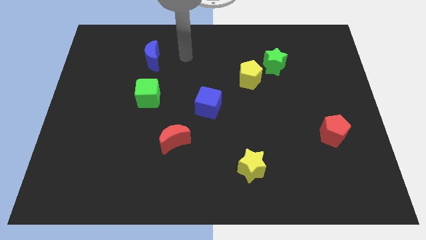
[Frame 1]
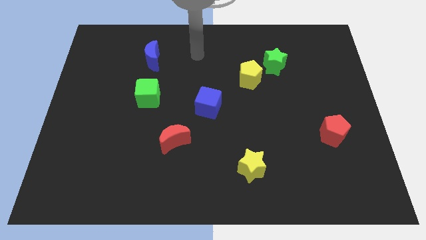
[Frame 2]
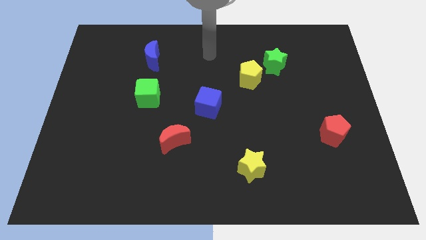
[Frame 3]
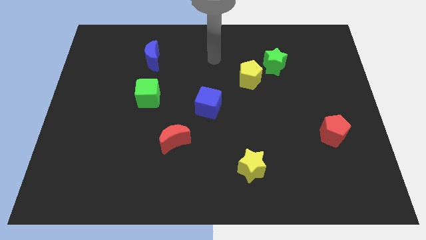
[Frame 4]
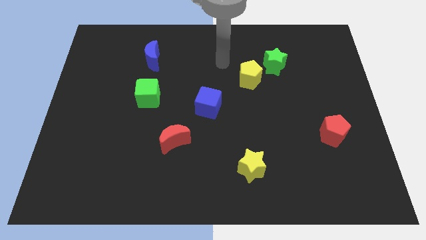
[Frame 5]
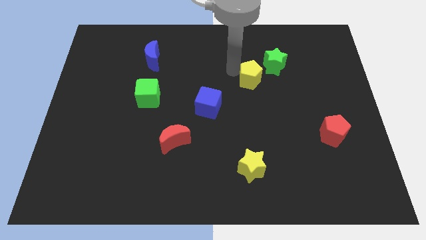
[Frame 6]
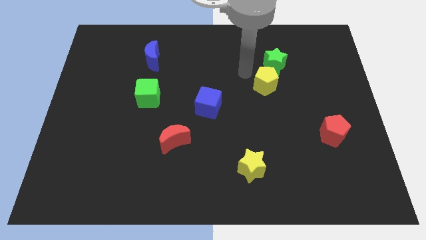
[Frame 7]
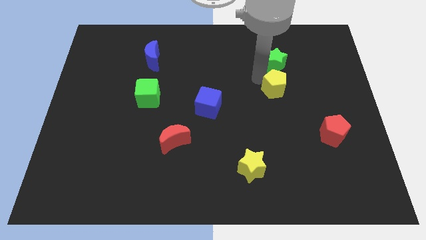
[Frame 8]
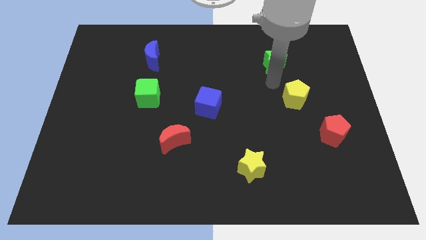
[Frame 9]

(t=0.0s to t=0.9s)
pull the green star apart from the yellow pentagon

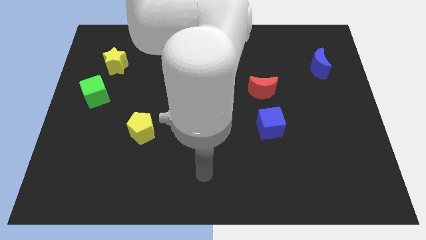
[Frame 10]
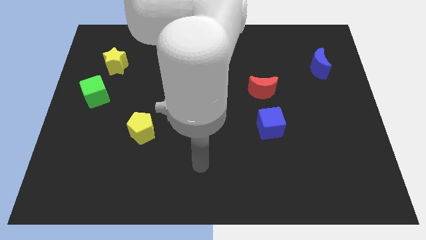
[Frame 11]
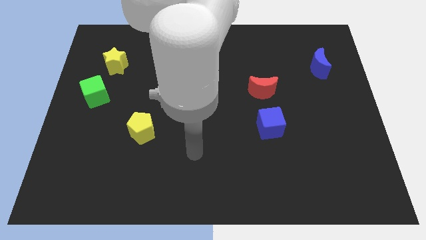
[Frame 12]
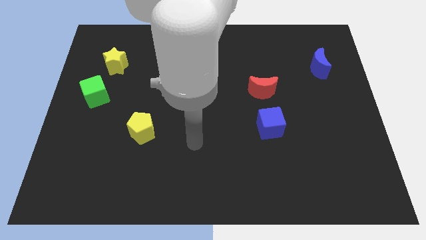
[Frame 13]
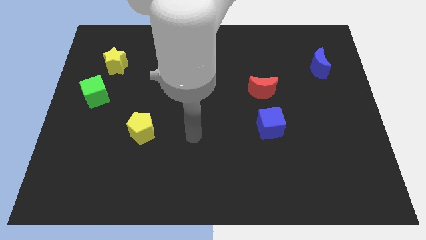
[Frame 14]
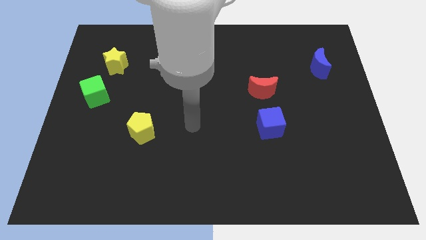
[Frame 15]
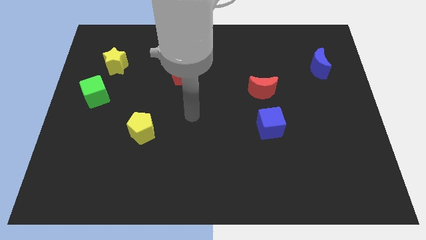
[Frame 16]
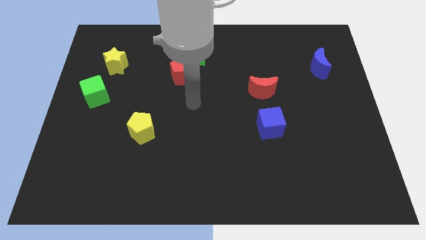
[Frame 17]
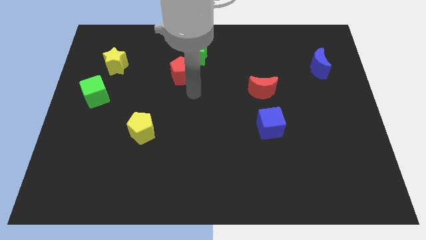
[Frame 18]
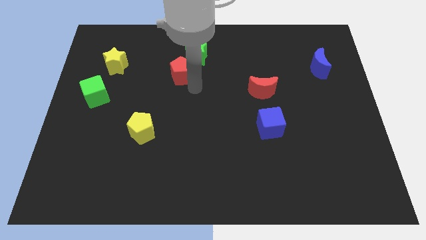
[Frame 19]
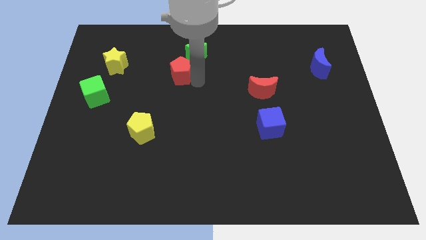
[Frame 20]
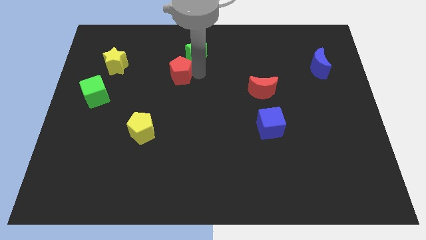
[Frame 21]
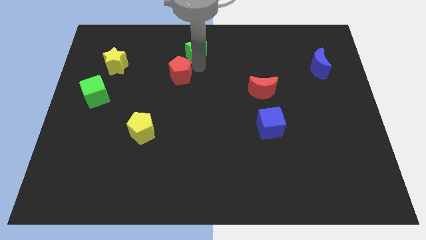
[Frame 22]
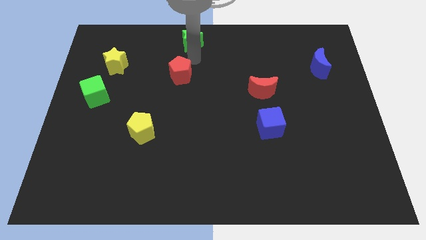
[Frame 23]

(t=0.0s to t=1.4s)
separate the red pentagon from the green star

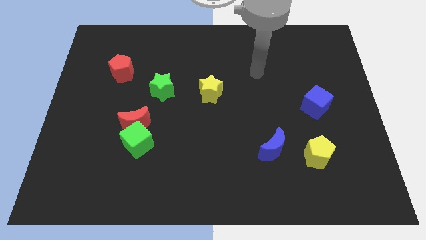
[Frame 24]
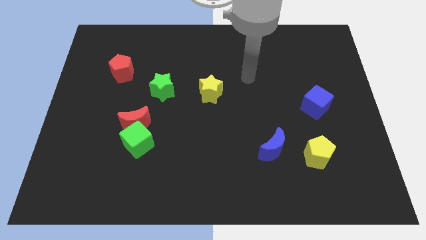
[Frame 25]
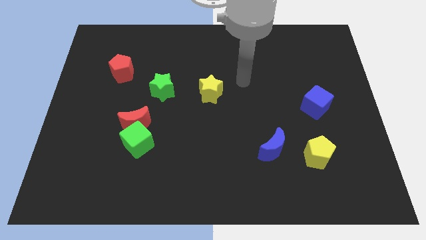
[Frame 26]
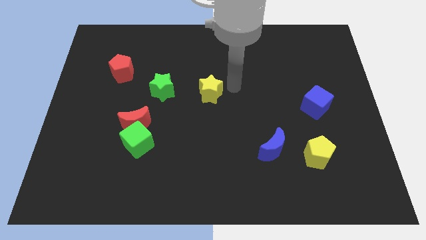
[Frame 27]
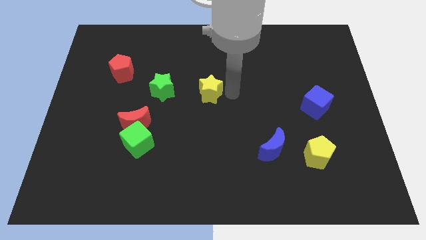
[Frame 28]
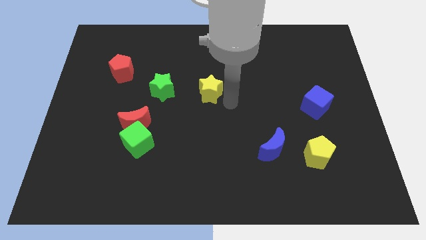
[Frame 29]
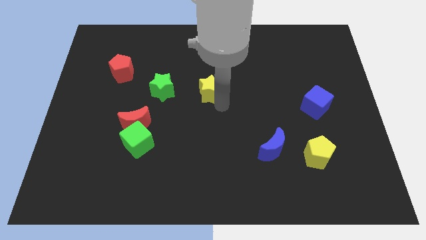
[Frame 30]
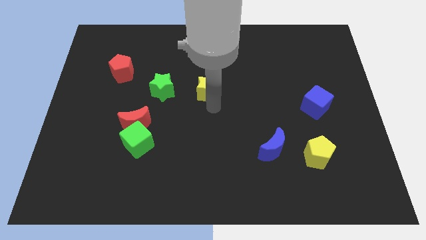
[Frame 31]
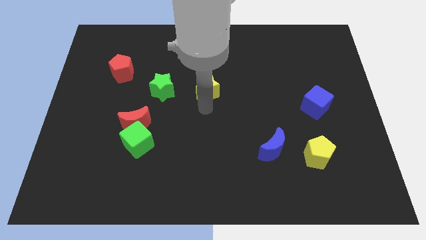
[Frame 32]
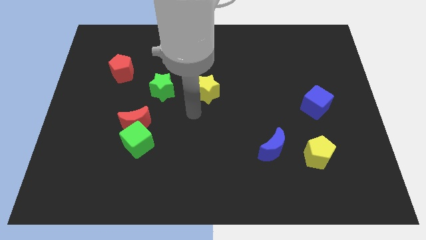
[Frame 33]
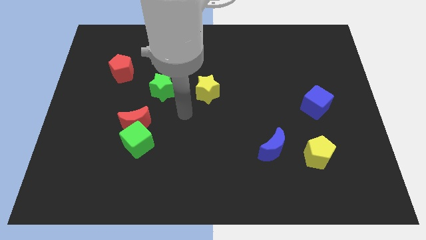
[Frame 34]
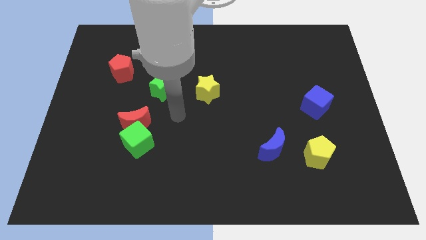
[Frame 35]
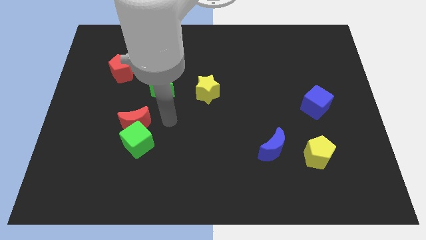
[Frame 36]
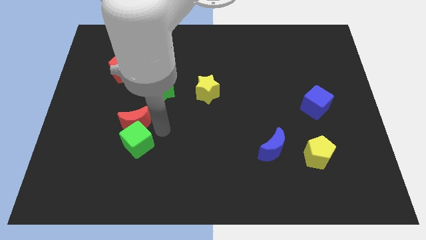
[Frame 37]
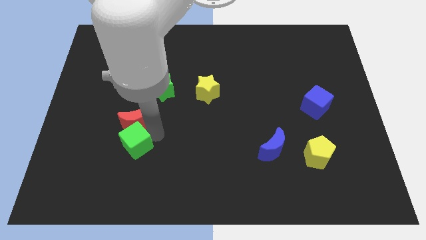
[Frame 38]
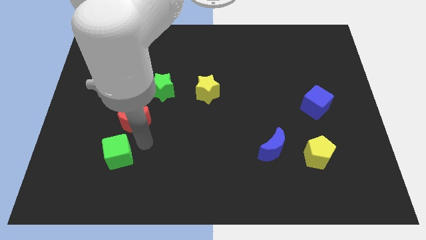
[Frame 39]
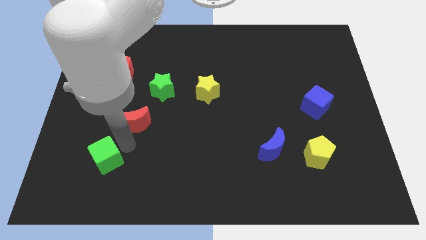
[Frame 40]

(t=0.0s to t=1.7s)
pull the red moon apart from the green cube

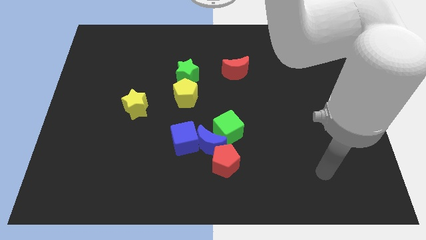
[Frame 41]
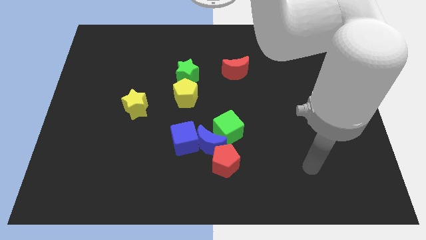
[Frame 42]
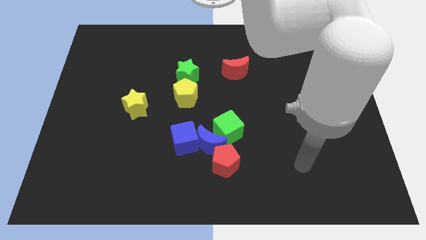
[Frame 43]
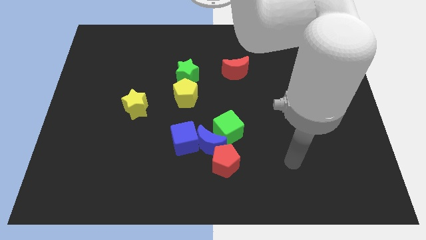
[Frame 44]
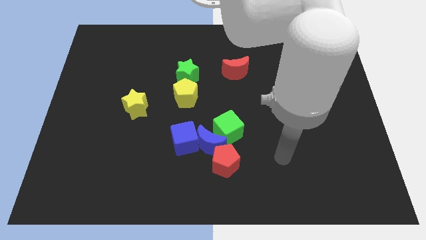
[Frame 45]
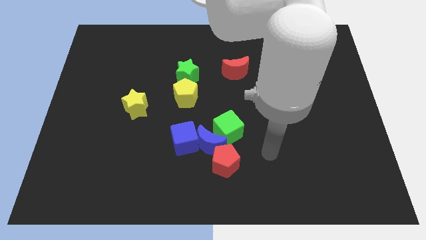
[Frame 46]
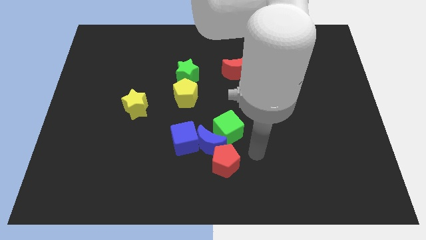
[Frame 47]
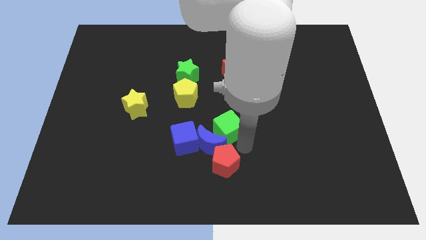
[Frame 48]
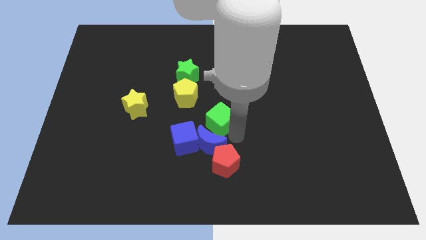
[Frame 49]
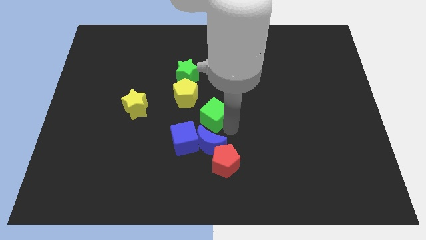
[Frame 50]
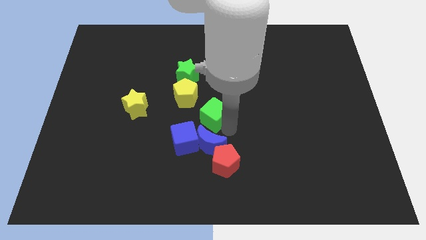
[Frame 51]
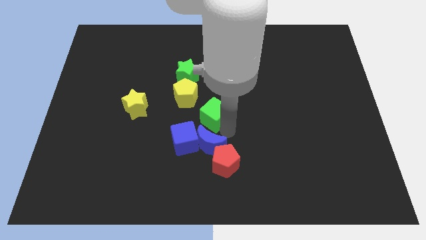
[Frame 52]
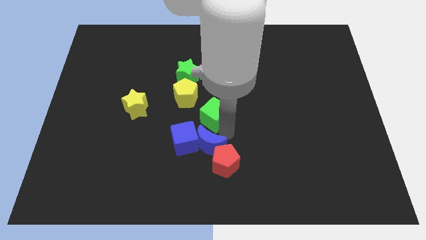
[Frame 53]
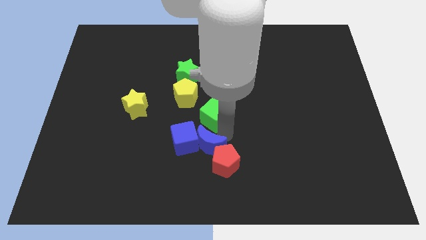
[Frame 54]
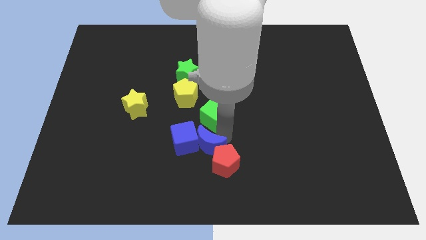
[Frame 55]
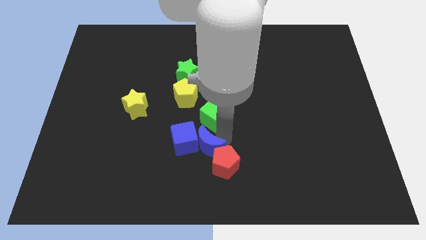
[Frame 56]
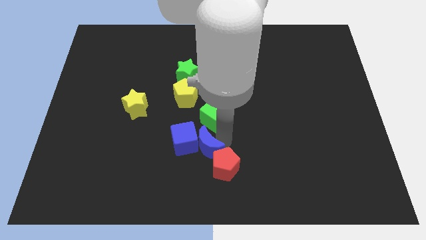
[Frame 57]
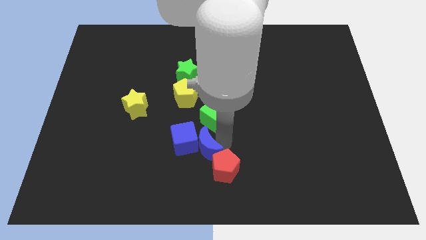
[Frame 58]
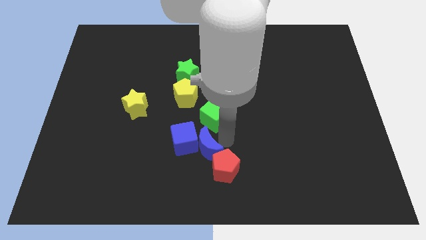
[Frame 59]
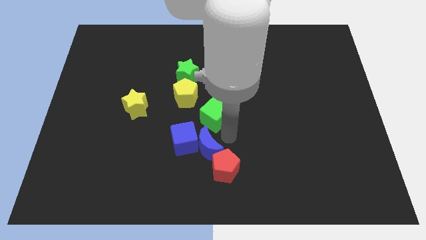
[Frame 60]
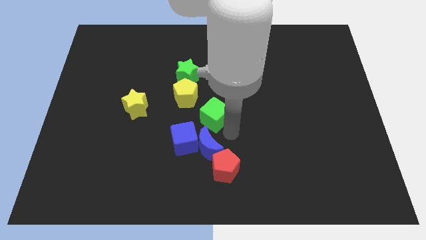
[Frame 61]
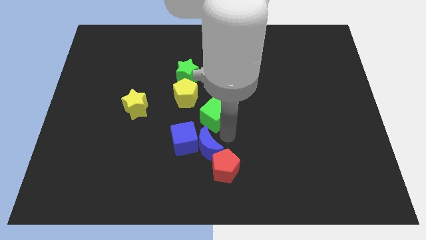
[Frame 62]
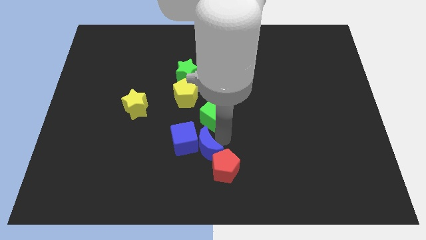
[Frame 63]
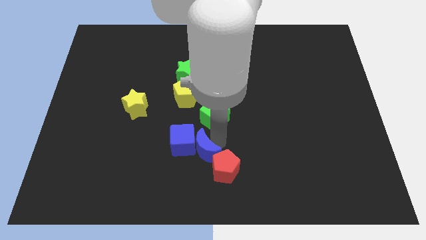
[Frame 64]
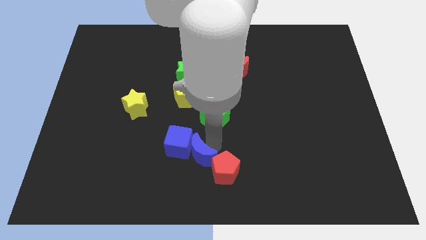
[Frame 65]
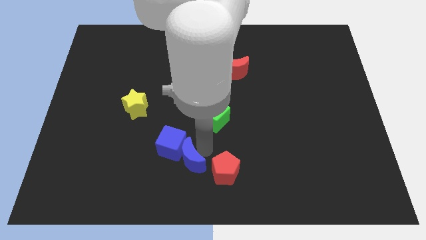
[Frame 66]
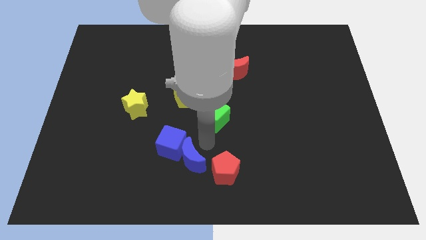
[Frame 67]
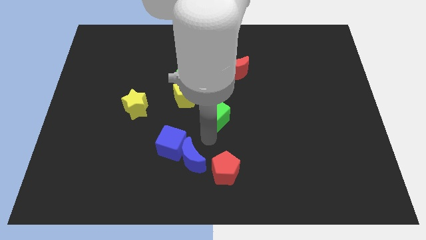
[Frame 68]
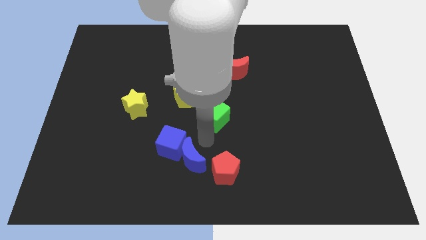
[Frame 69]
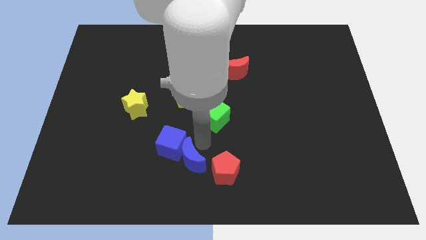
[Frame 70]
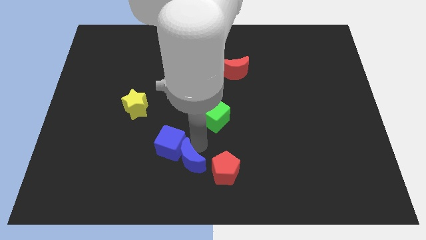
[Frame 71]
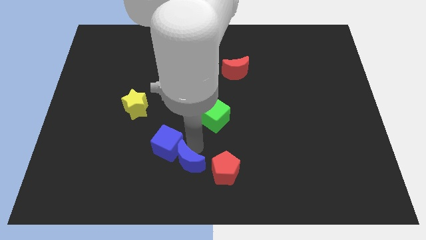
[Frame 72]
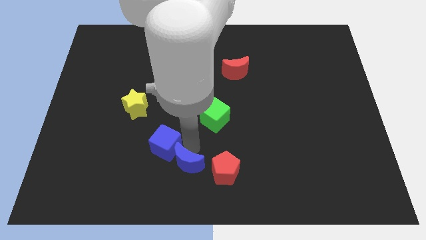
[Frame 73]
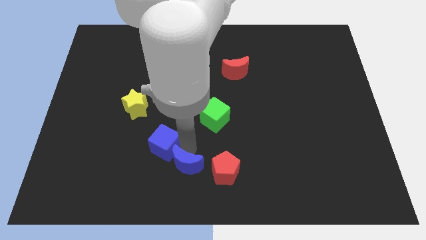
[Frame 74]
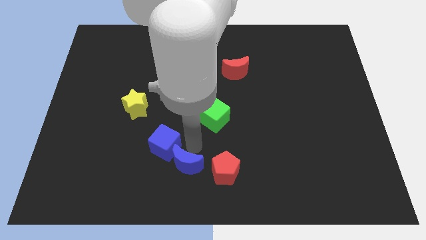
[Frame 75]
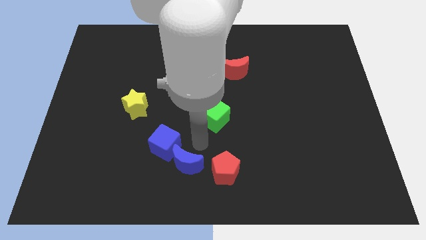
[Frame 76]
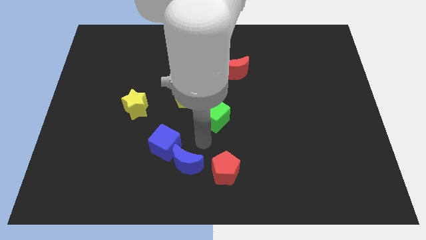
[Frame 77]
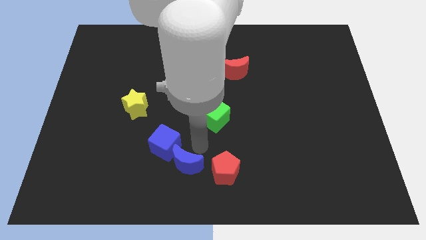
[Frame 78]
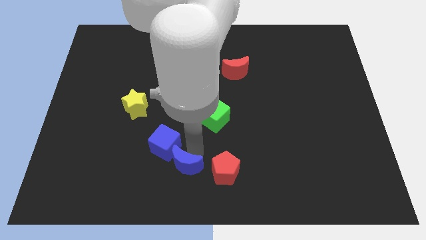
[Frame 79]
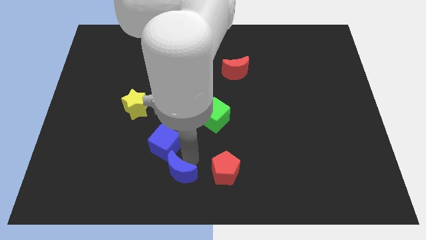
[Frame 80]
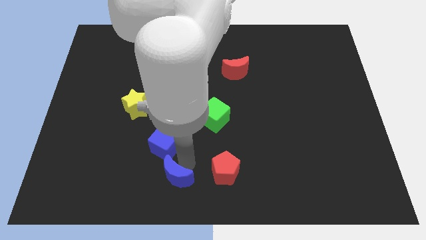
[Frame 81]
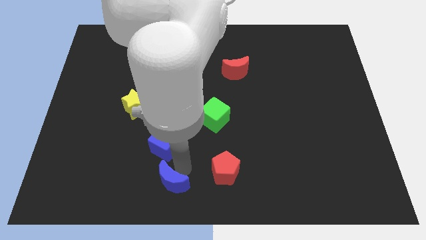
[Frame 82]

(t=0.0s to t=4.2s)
pull the blue moon apart from the red pentagon, green cube, and blue cube

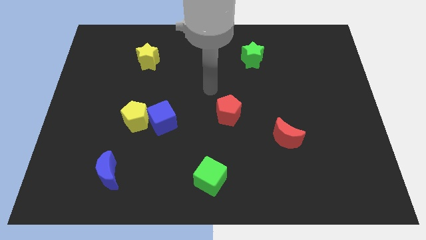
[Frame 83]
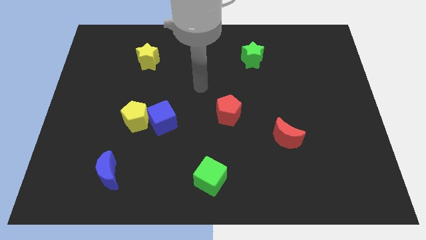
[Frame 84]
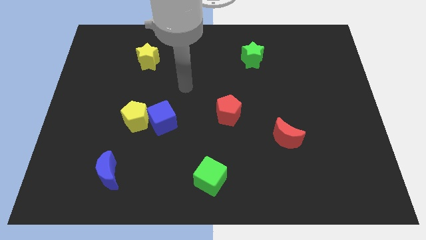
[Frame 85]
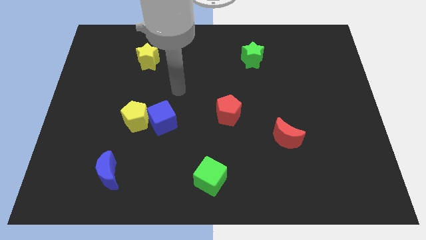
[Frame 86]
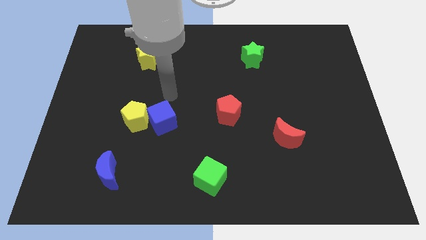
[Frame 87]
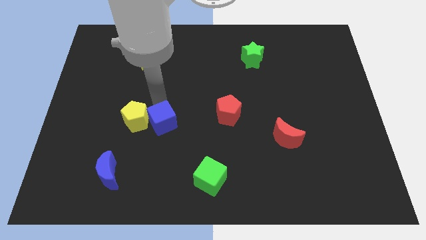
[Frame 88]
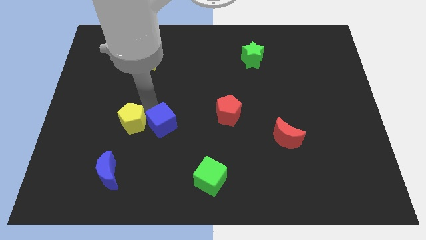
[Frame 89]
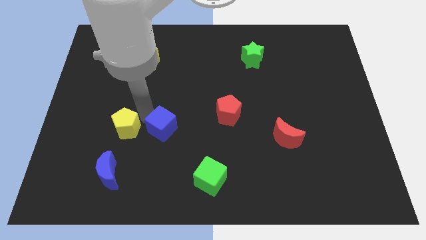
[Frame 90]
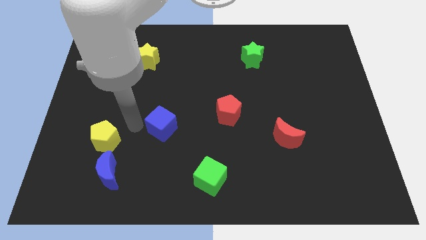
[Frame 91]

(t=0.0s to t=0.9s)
move the blue cube away from the yellow pentagon

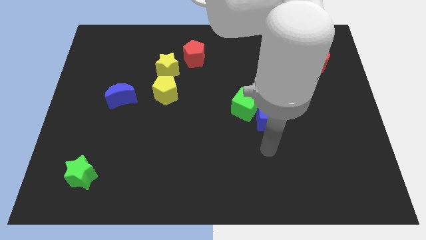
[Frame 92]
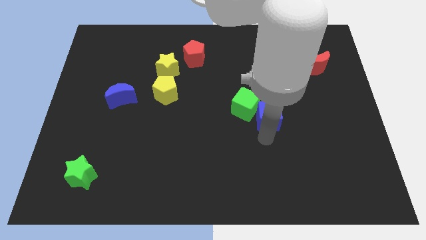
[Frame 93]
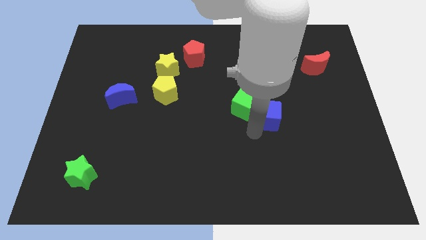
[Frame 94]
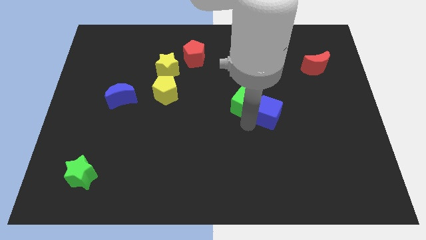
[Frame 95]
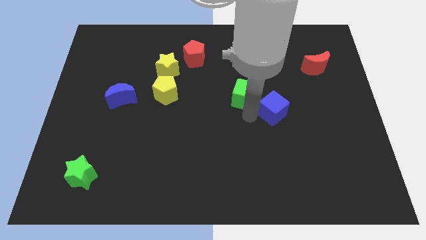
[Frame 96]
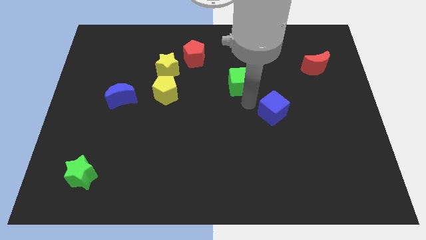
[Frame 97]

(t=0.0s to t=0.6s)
pull the blue cube apart from the green cube
